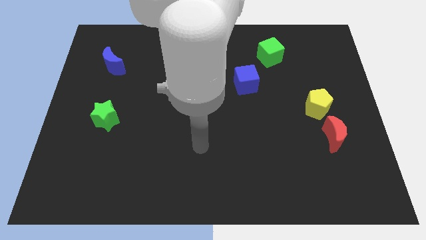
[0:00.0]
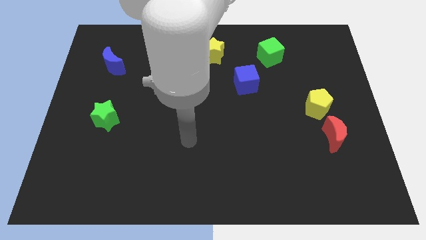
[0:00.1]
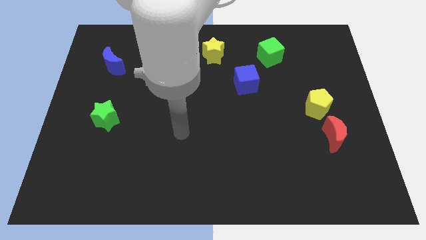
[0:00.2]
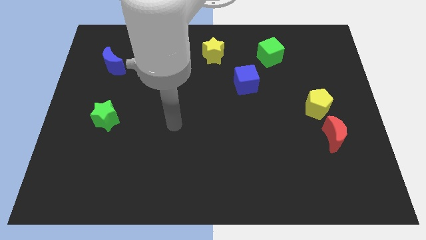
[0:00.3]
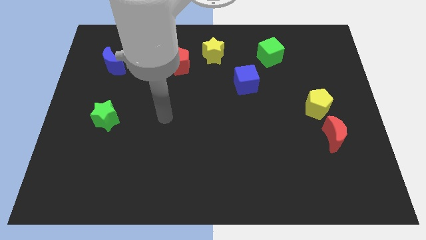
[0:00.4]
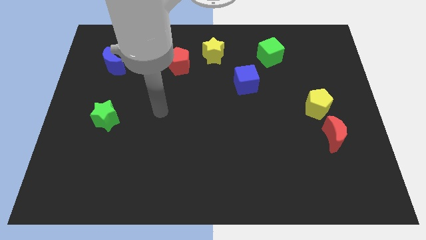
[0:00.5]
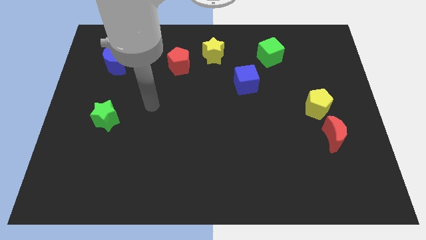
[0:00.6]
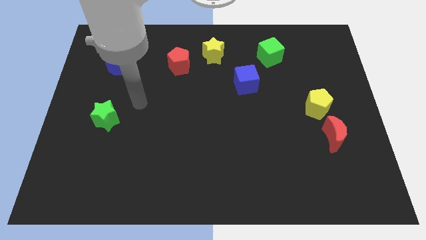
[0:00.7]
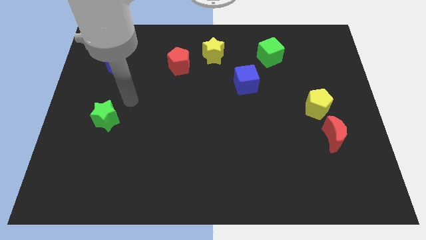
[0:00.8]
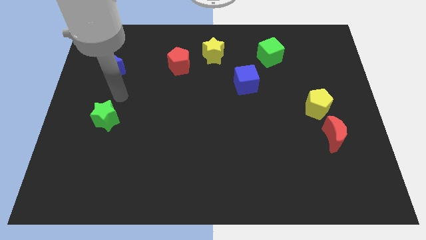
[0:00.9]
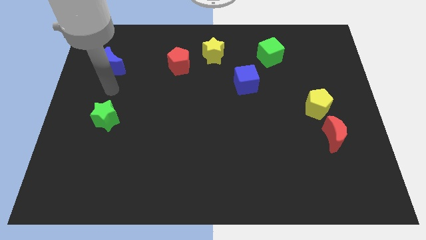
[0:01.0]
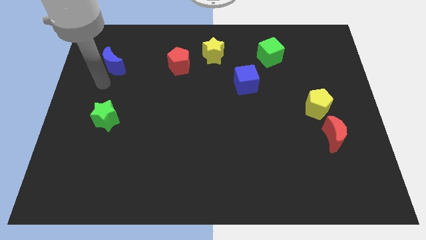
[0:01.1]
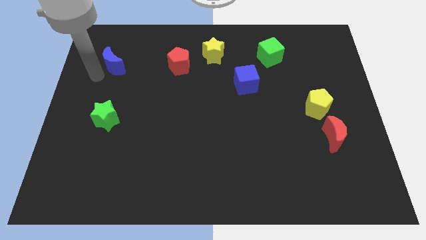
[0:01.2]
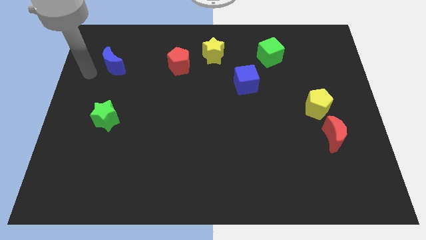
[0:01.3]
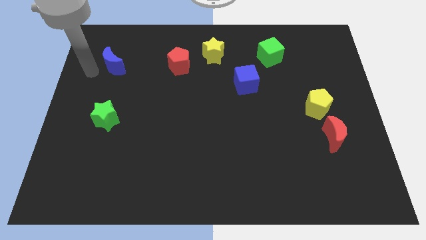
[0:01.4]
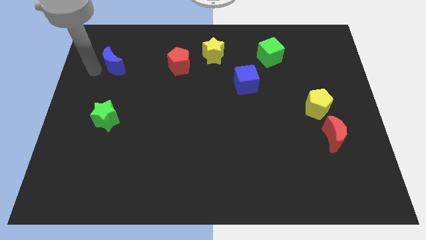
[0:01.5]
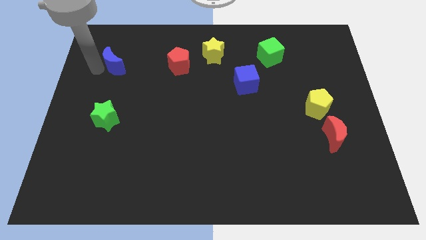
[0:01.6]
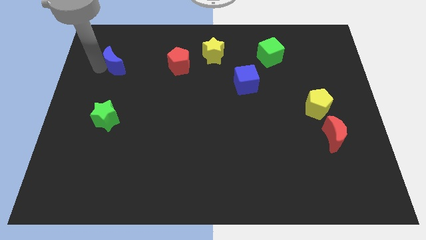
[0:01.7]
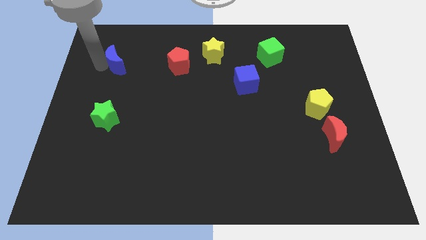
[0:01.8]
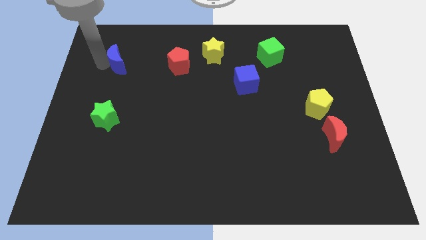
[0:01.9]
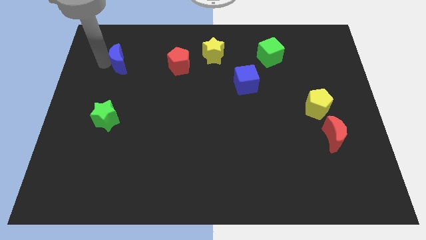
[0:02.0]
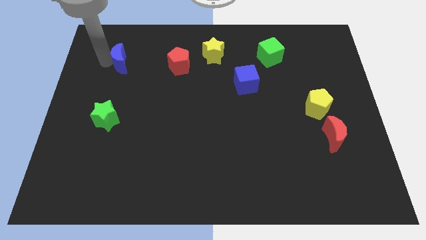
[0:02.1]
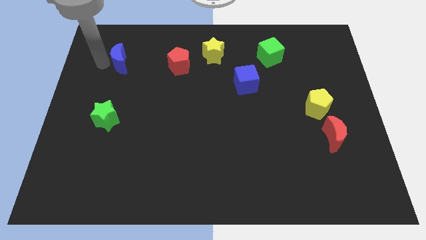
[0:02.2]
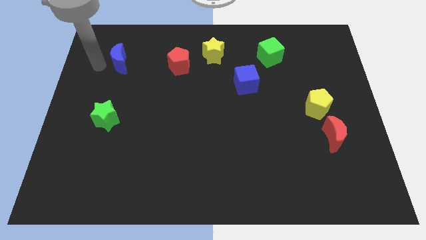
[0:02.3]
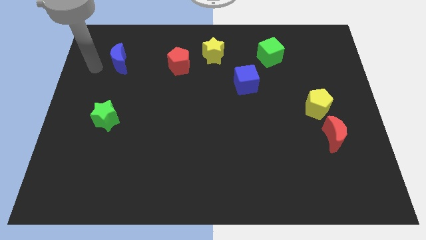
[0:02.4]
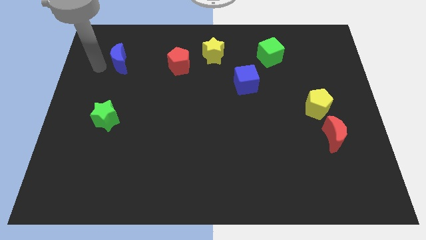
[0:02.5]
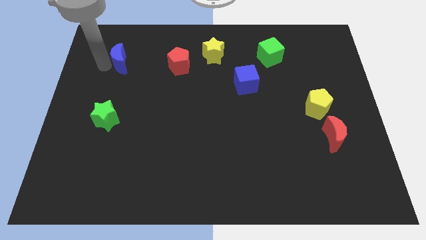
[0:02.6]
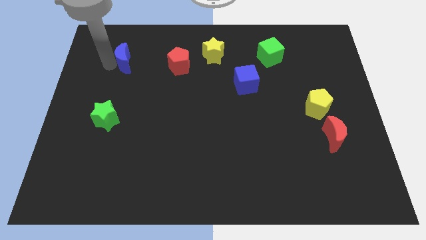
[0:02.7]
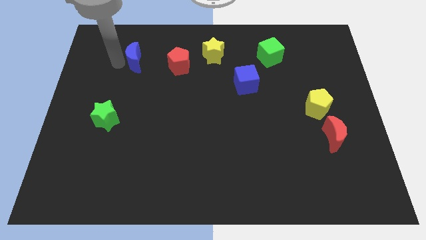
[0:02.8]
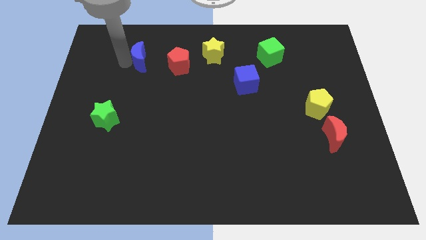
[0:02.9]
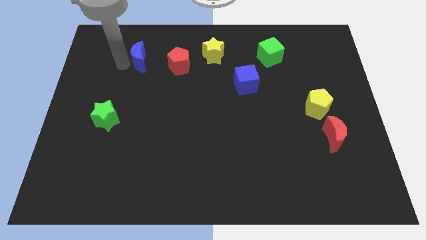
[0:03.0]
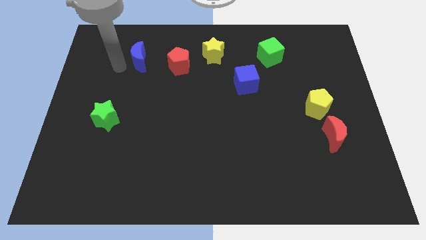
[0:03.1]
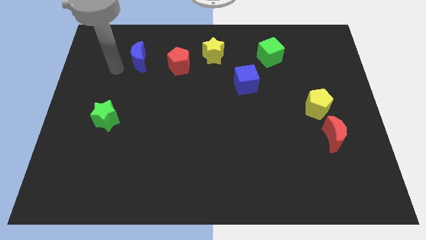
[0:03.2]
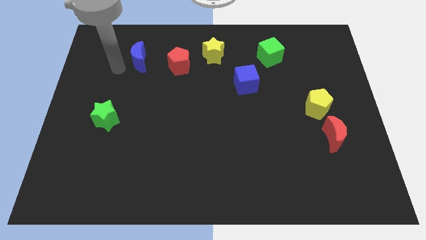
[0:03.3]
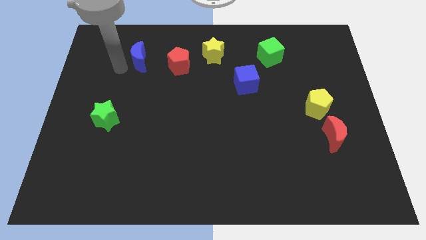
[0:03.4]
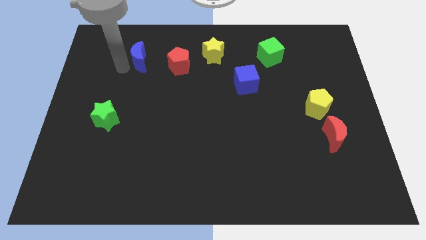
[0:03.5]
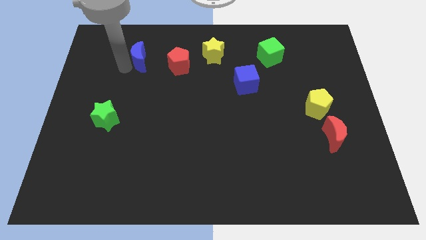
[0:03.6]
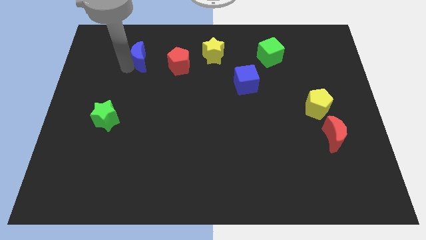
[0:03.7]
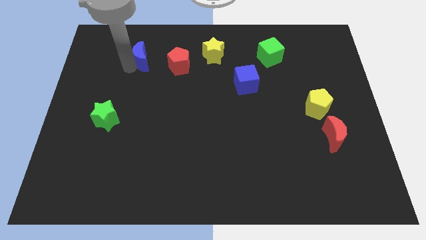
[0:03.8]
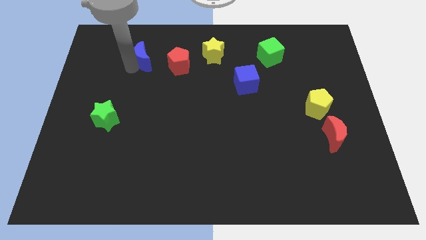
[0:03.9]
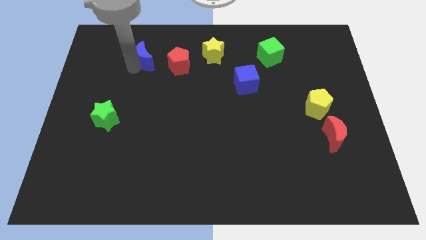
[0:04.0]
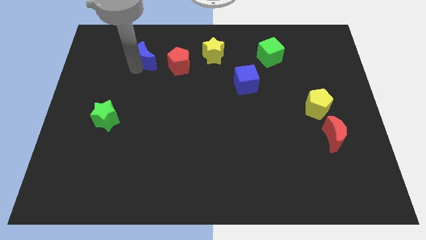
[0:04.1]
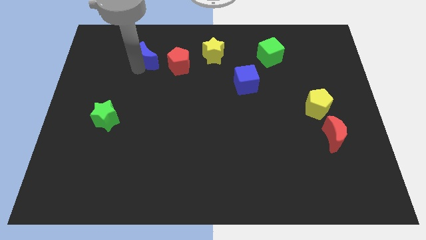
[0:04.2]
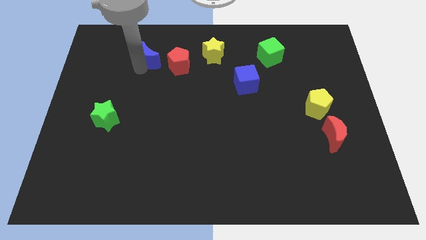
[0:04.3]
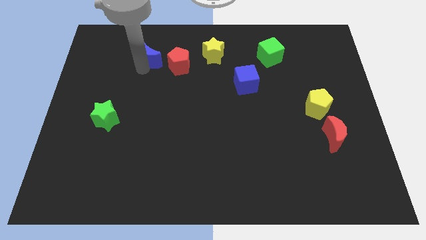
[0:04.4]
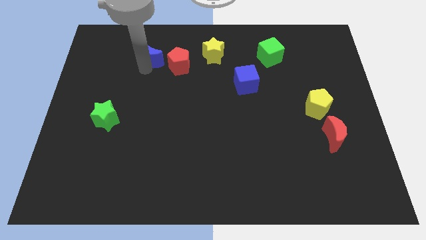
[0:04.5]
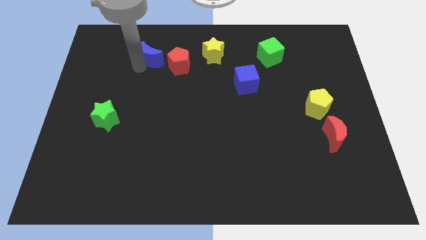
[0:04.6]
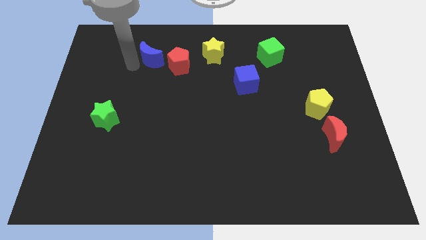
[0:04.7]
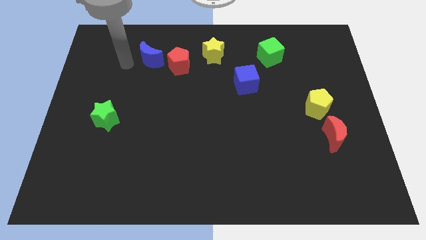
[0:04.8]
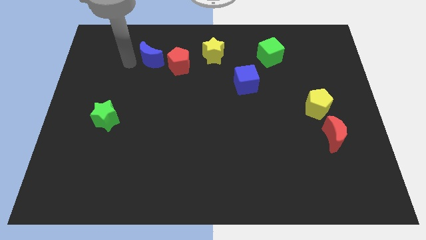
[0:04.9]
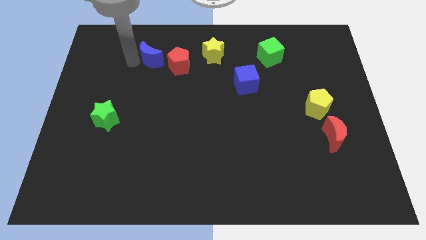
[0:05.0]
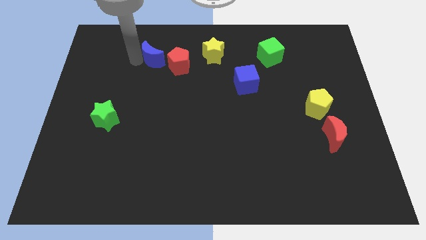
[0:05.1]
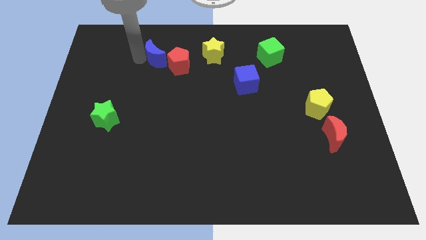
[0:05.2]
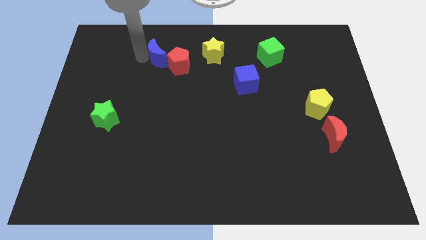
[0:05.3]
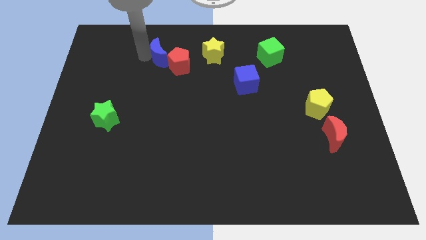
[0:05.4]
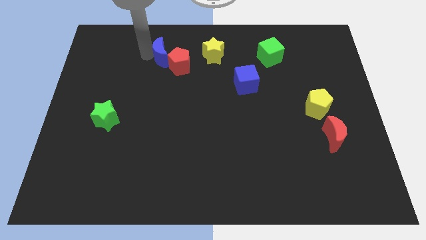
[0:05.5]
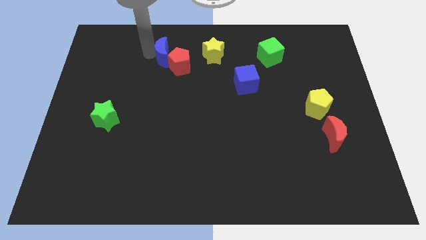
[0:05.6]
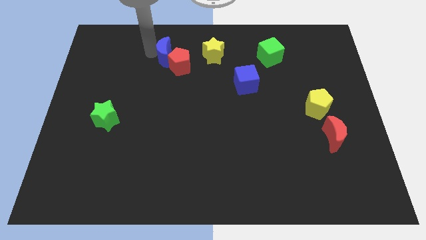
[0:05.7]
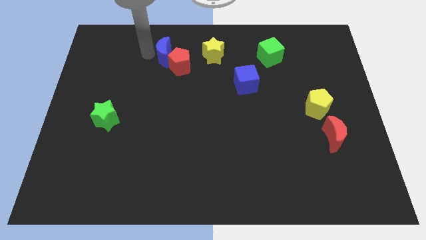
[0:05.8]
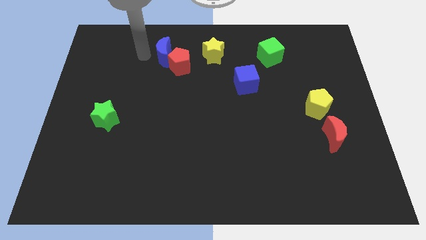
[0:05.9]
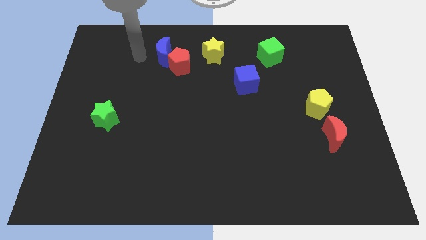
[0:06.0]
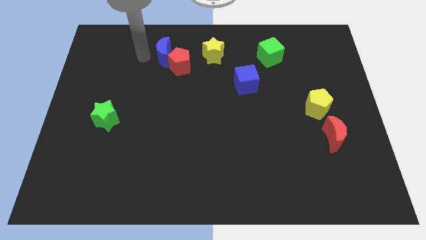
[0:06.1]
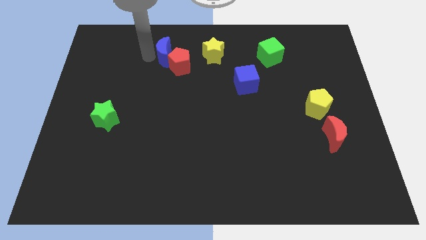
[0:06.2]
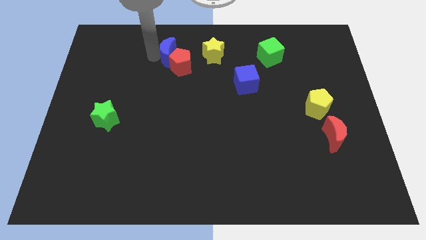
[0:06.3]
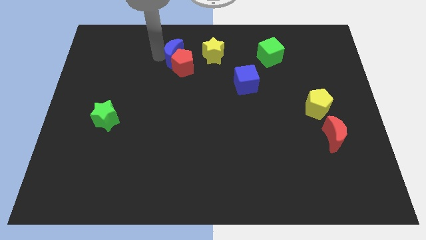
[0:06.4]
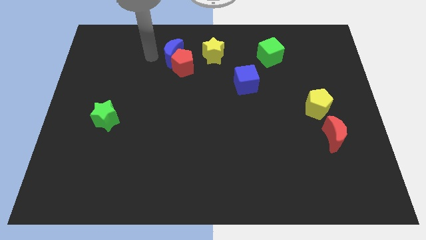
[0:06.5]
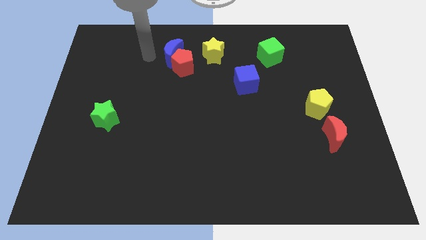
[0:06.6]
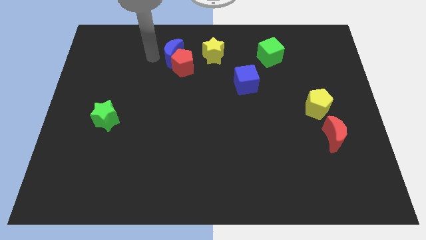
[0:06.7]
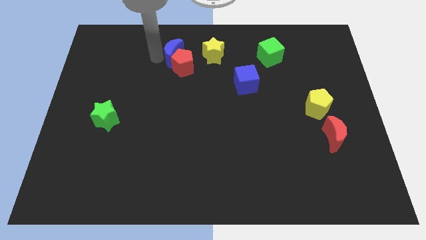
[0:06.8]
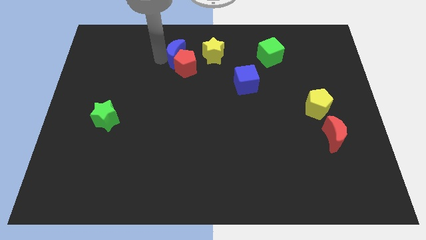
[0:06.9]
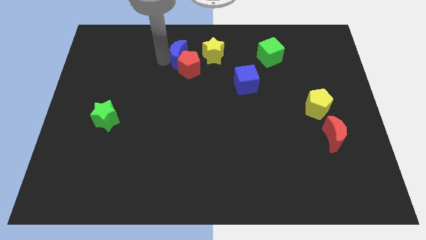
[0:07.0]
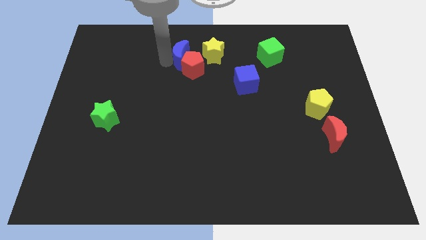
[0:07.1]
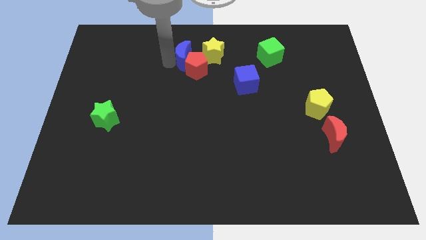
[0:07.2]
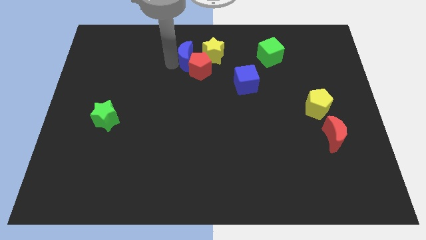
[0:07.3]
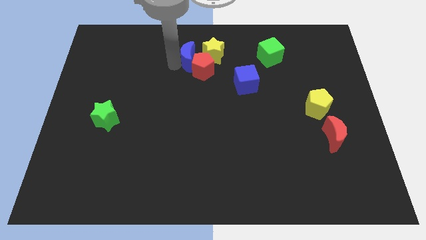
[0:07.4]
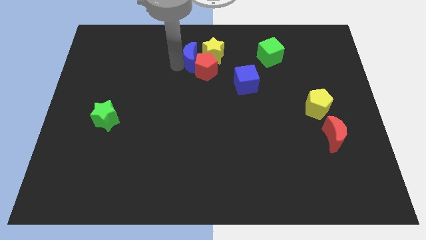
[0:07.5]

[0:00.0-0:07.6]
move the blue moon towards the yellow star
